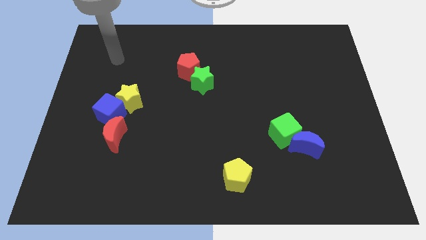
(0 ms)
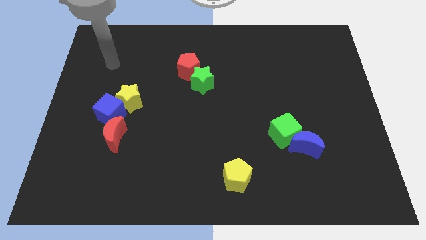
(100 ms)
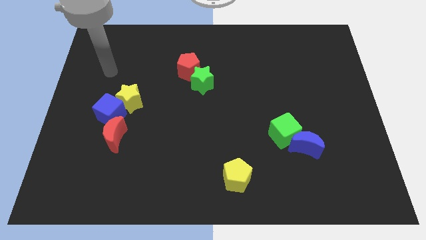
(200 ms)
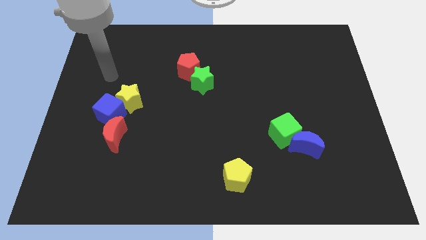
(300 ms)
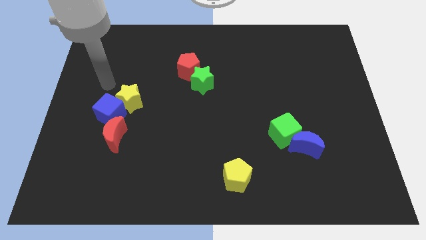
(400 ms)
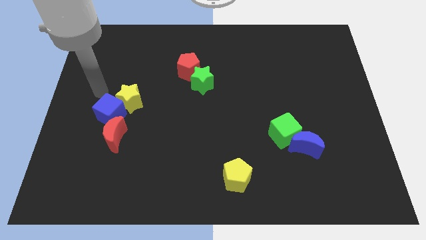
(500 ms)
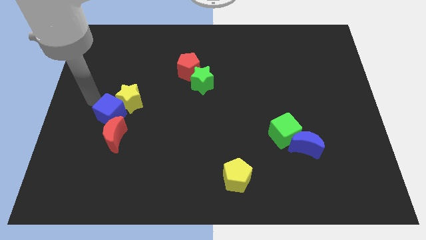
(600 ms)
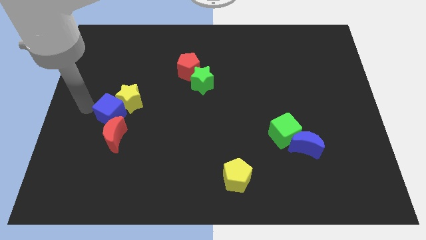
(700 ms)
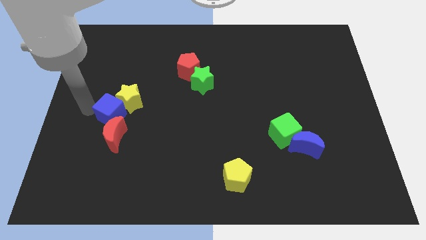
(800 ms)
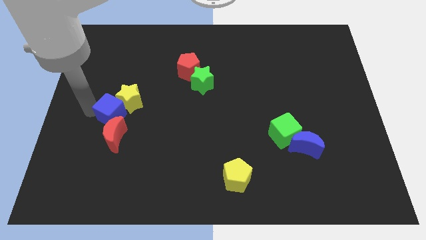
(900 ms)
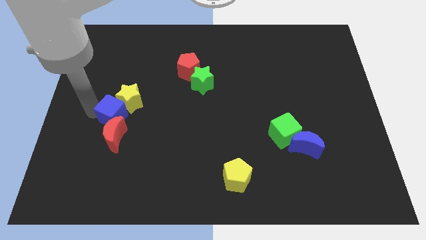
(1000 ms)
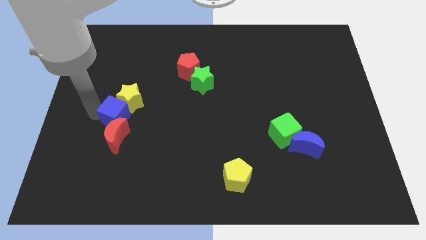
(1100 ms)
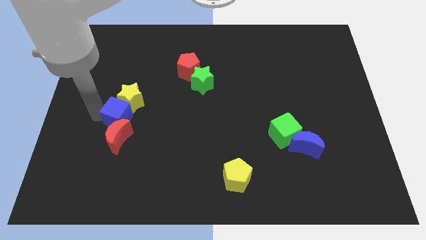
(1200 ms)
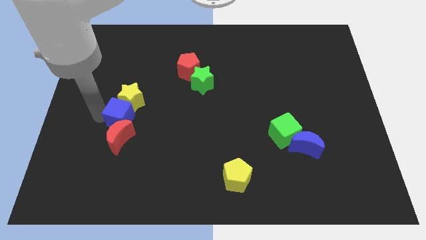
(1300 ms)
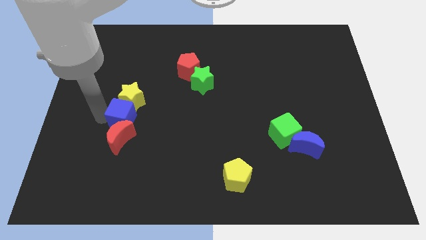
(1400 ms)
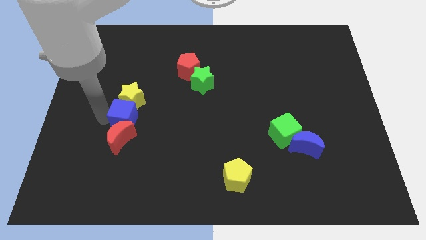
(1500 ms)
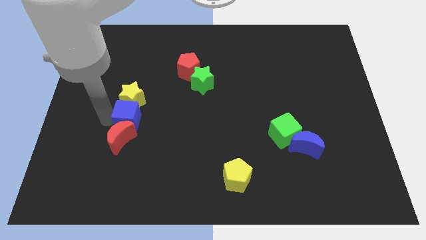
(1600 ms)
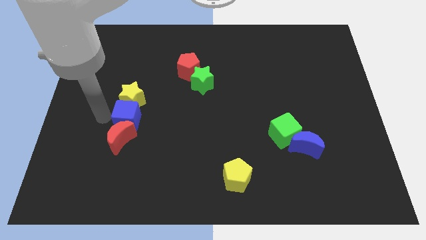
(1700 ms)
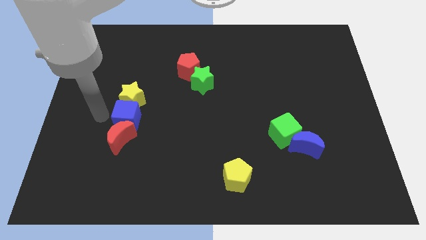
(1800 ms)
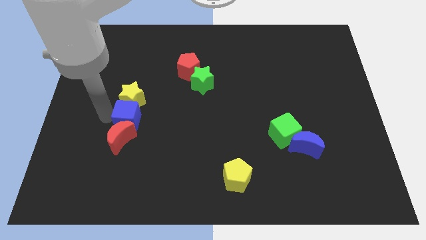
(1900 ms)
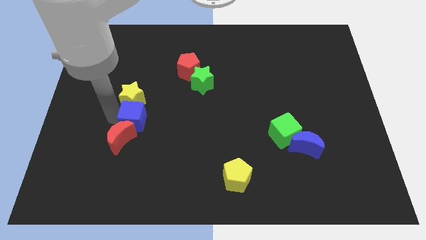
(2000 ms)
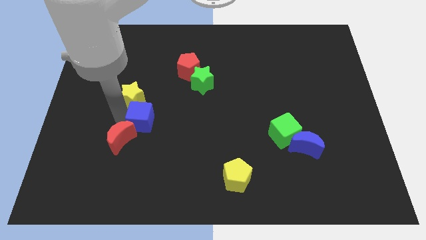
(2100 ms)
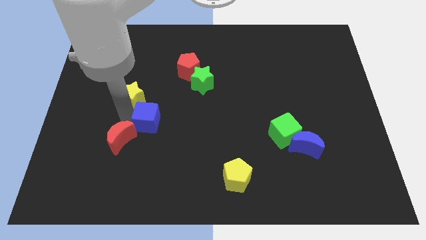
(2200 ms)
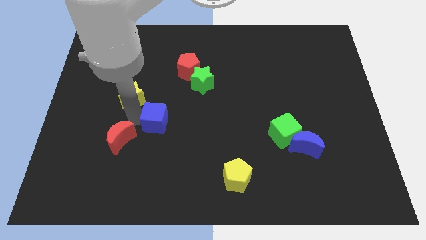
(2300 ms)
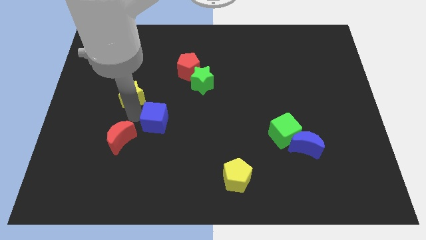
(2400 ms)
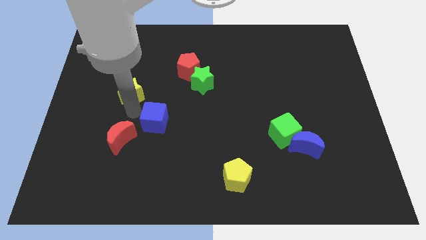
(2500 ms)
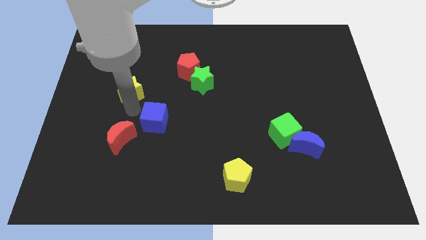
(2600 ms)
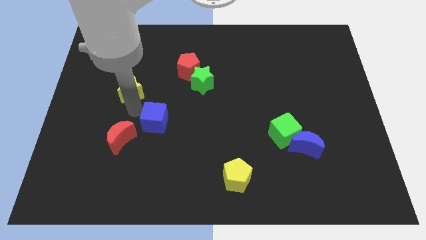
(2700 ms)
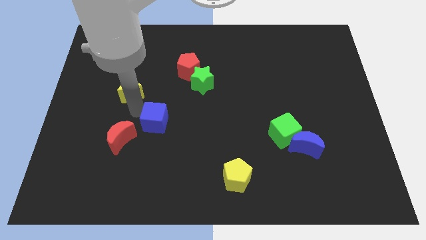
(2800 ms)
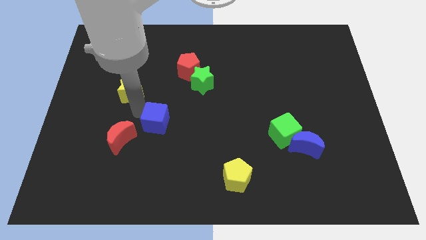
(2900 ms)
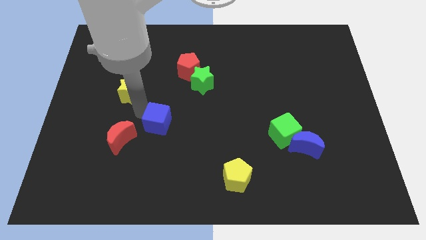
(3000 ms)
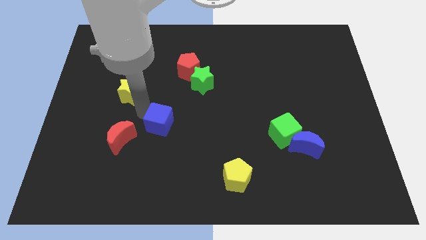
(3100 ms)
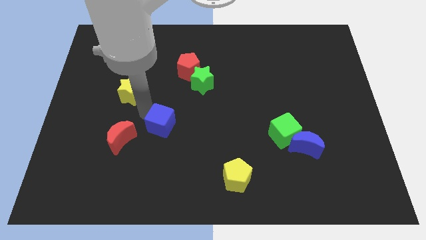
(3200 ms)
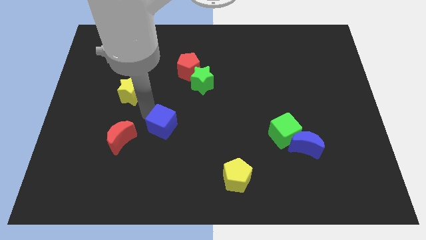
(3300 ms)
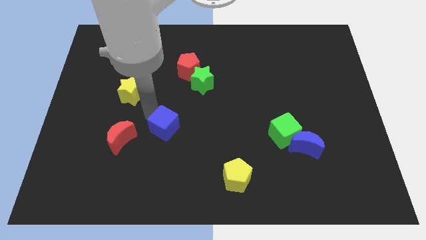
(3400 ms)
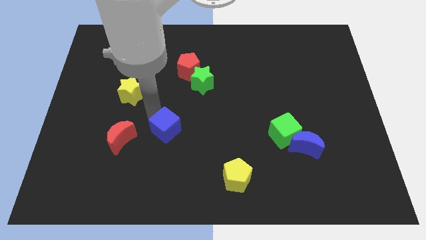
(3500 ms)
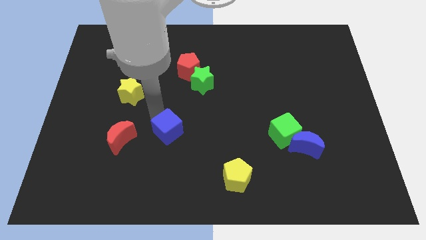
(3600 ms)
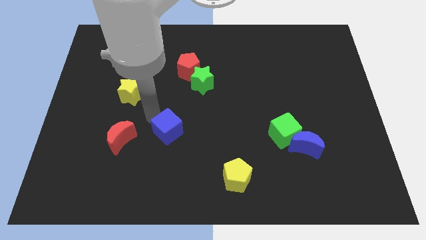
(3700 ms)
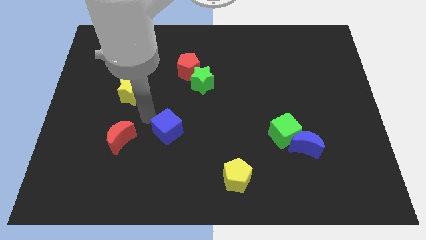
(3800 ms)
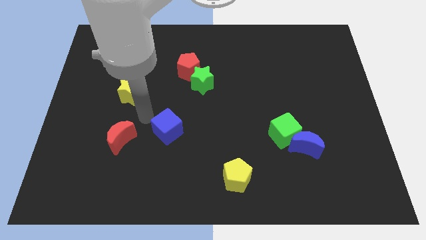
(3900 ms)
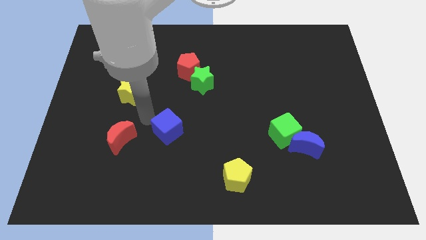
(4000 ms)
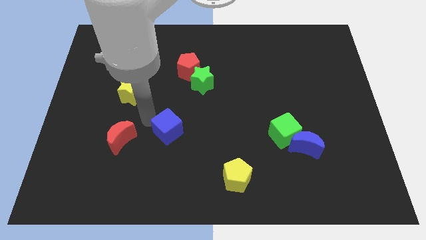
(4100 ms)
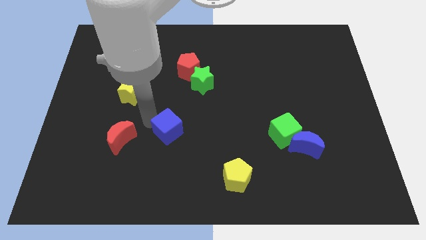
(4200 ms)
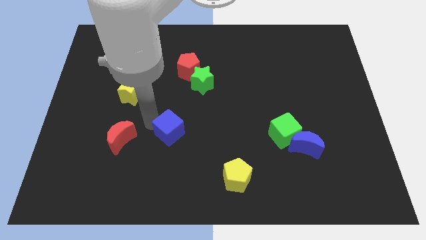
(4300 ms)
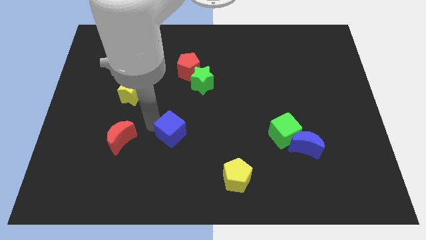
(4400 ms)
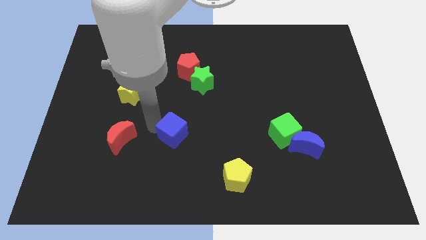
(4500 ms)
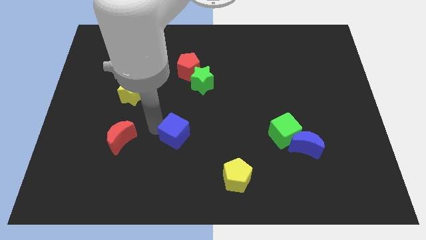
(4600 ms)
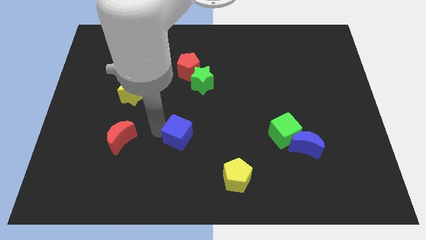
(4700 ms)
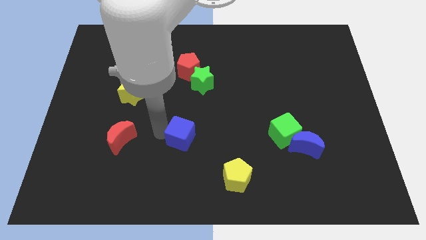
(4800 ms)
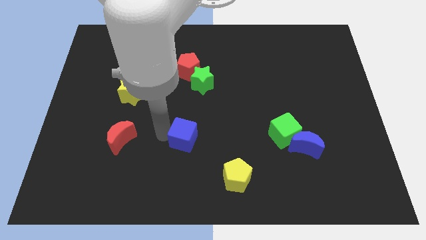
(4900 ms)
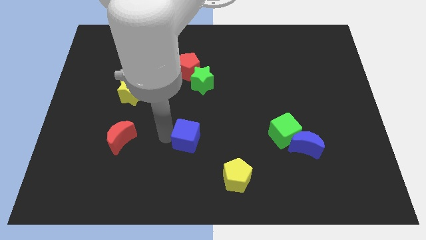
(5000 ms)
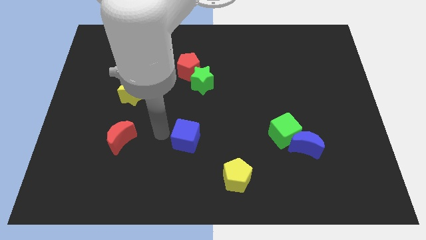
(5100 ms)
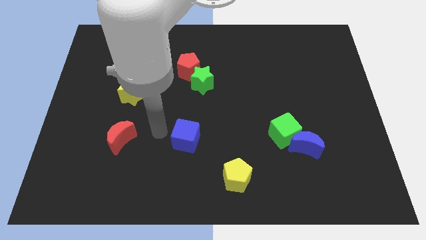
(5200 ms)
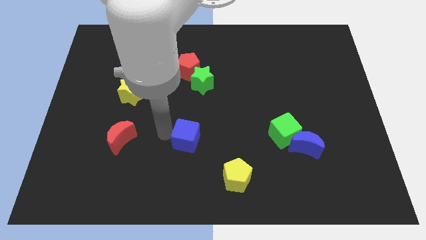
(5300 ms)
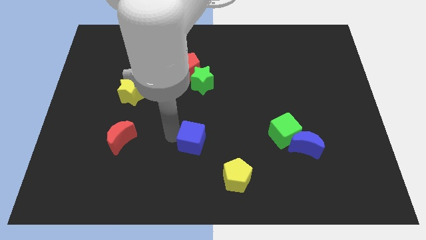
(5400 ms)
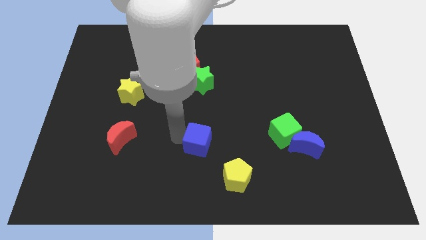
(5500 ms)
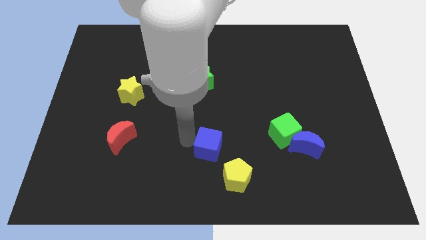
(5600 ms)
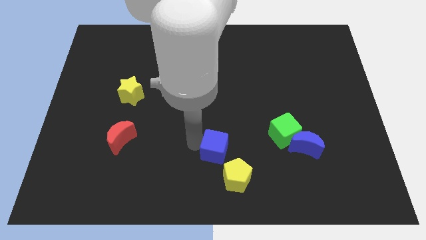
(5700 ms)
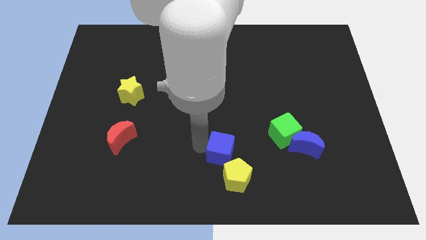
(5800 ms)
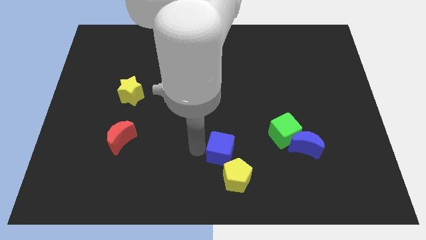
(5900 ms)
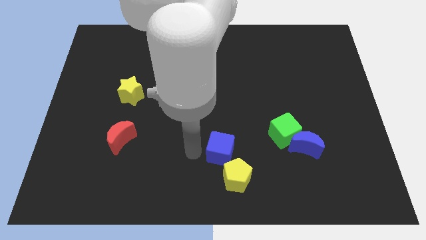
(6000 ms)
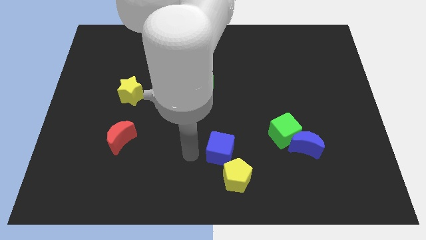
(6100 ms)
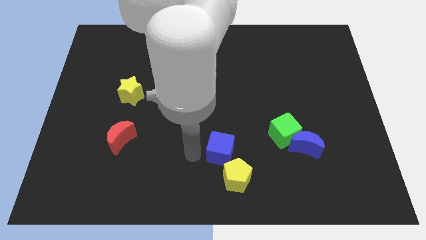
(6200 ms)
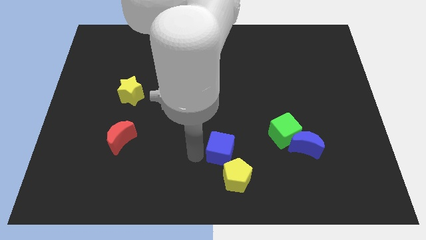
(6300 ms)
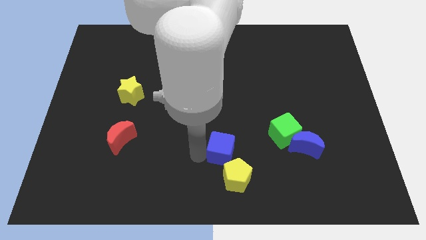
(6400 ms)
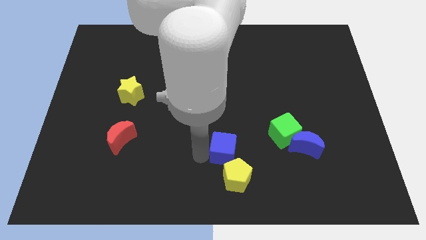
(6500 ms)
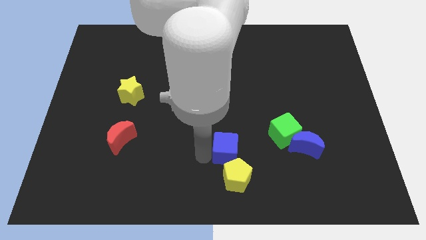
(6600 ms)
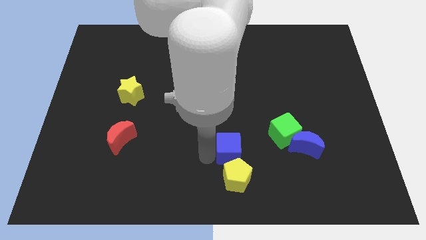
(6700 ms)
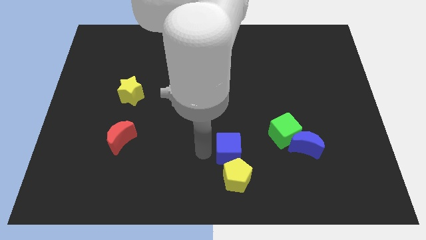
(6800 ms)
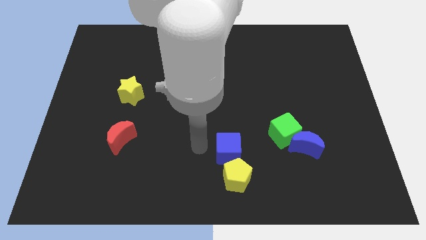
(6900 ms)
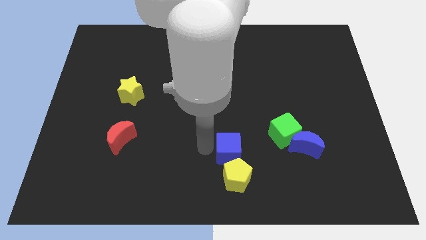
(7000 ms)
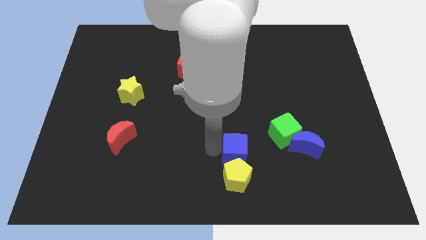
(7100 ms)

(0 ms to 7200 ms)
slide the blue cube to the top right of the yellow pentagon
